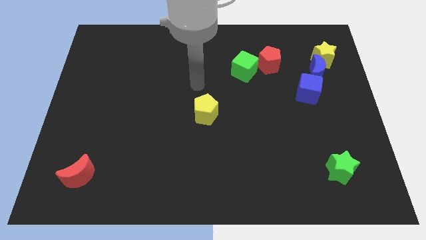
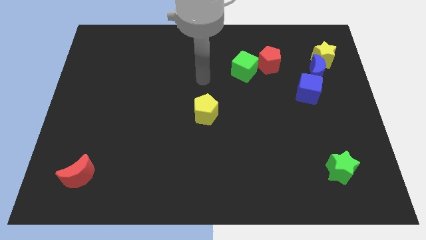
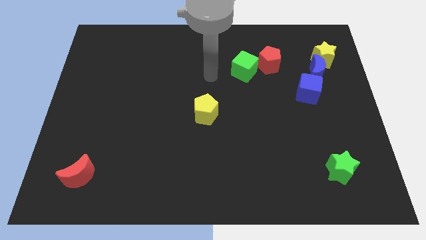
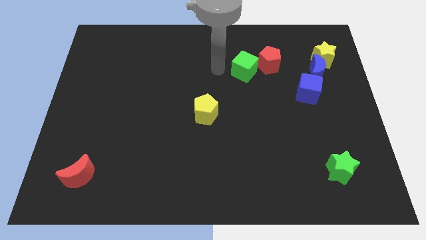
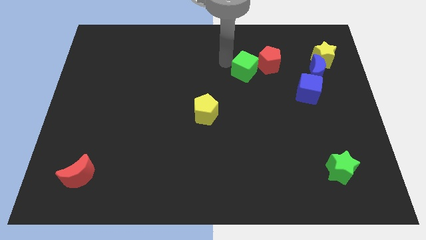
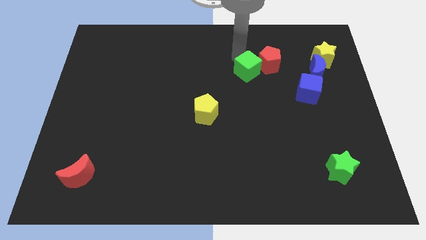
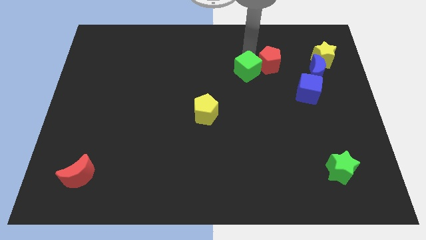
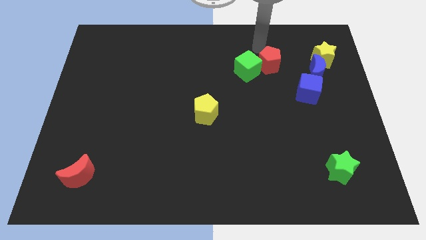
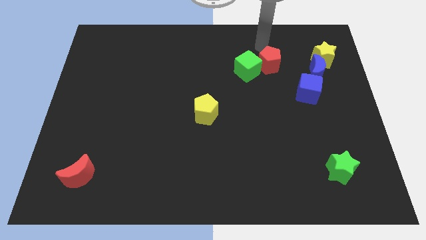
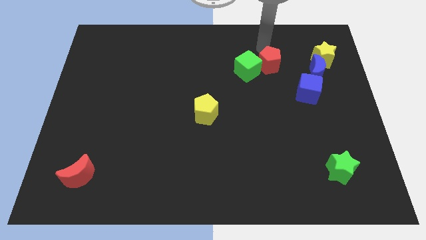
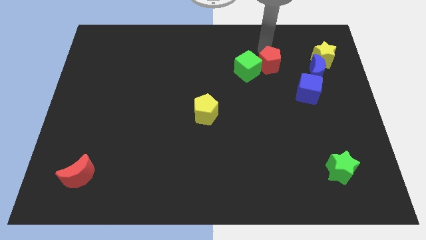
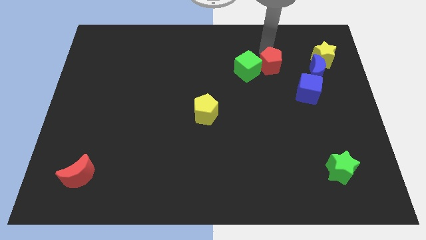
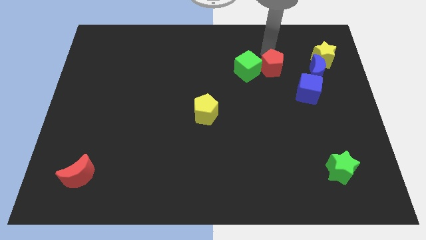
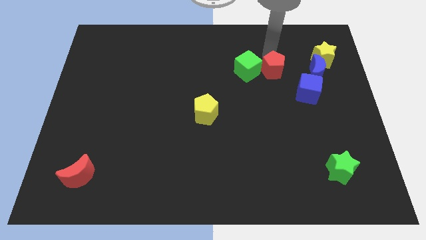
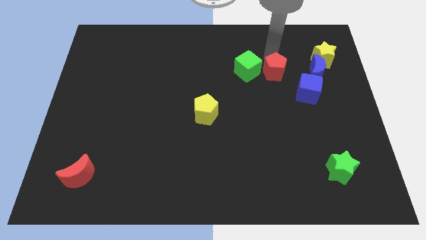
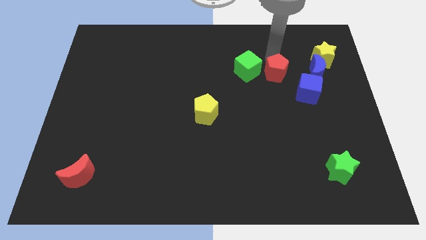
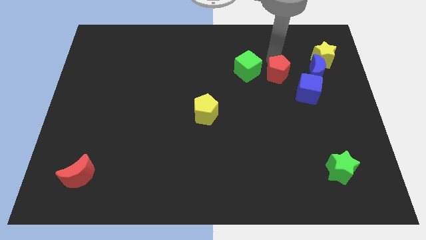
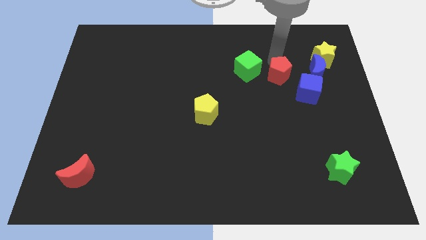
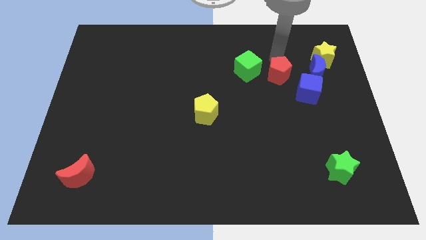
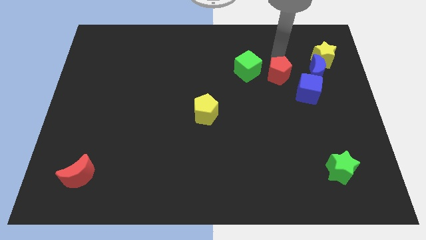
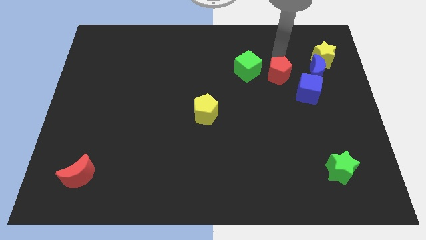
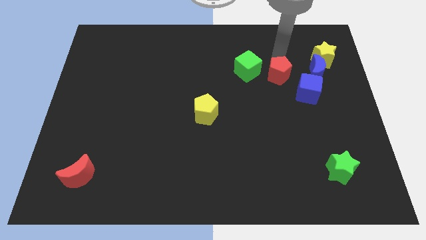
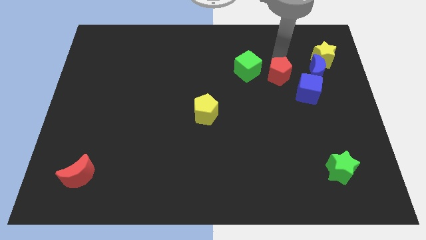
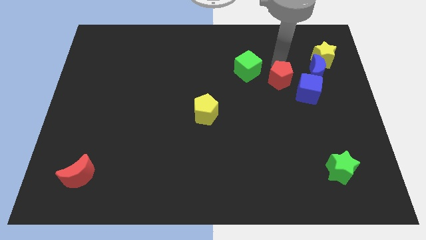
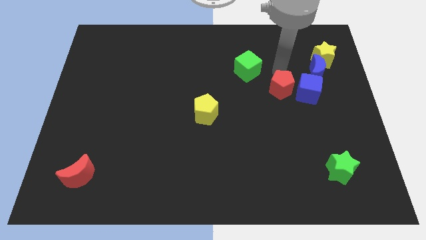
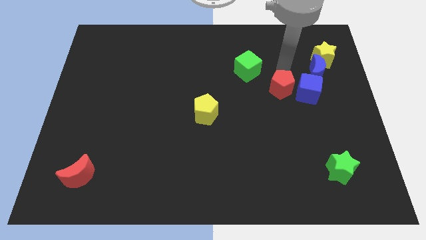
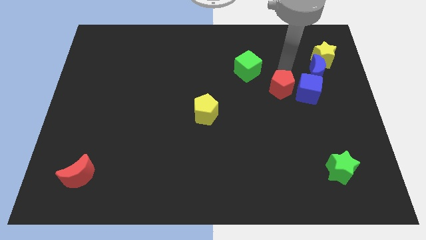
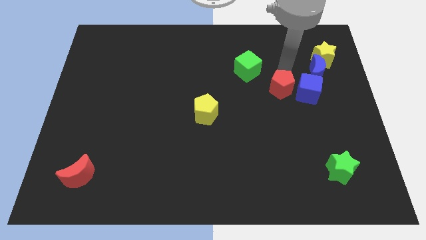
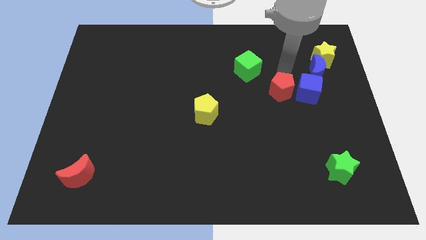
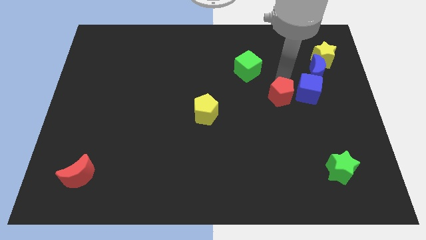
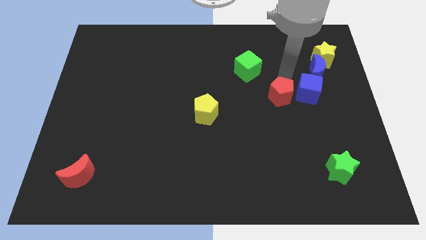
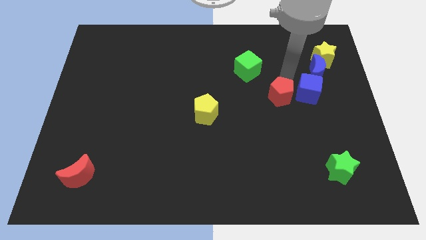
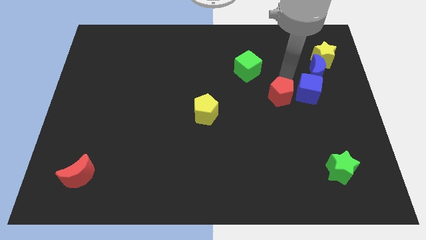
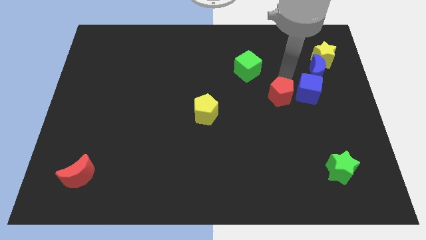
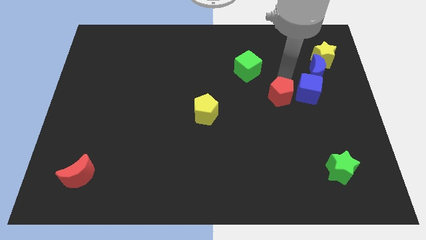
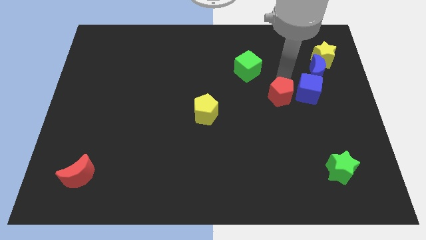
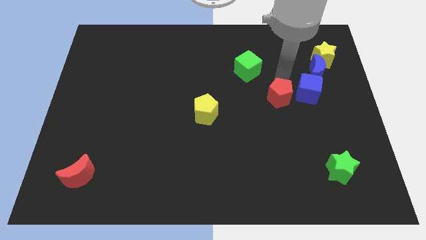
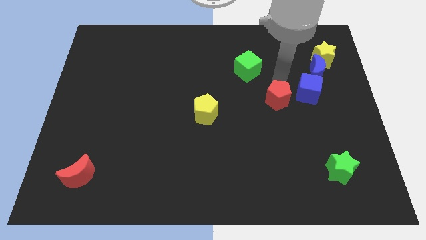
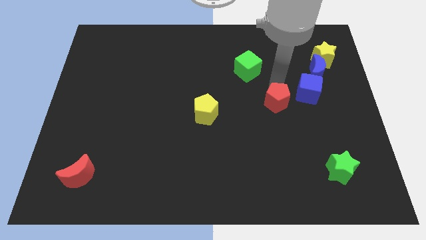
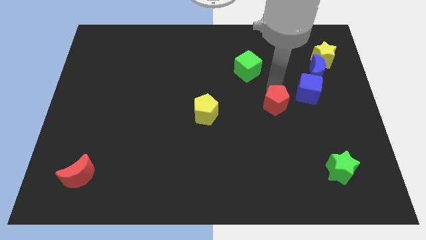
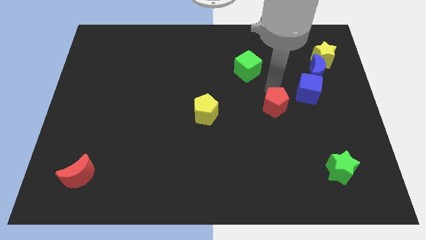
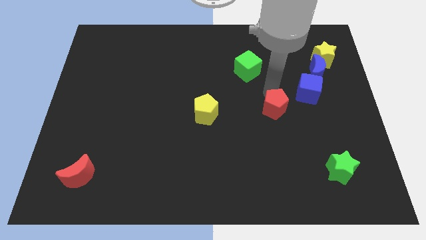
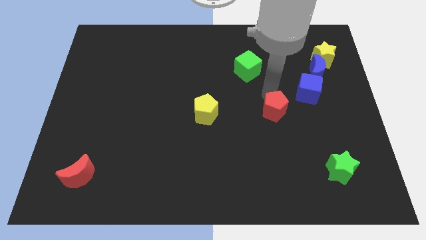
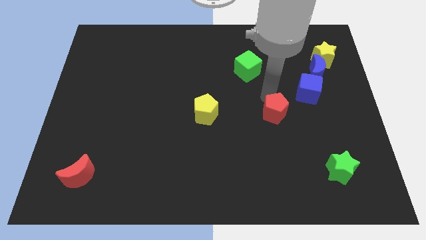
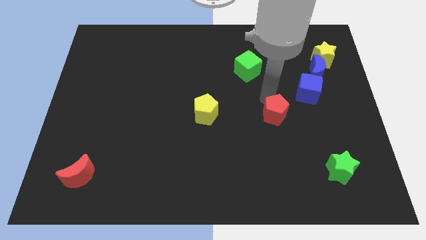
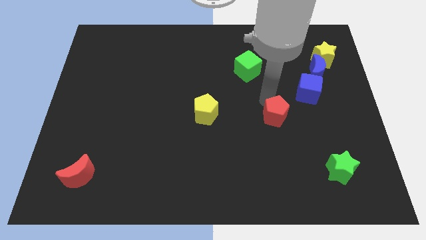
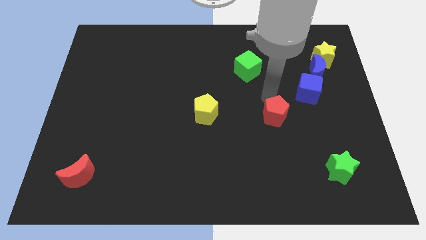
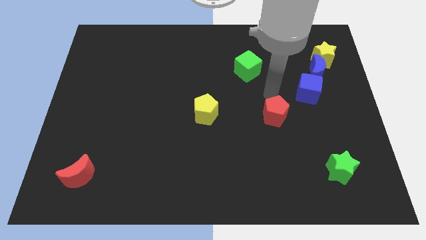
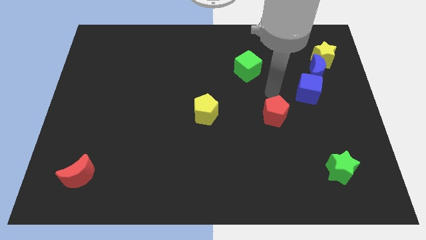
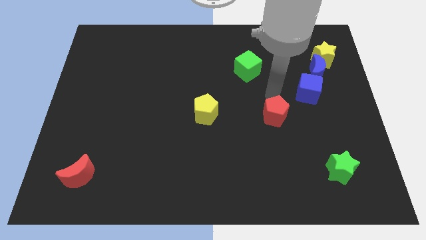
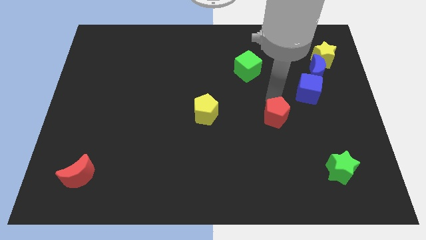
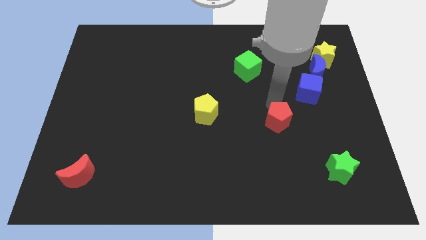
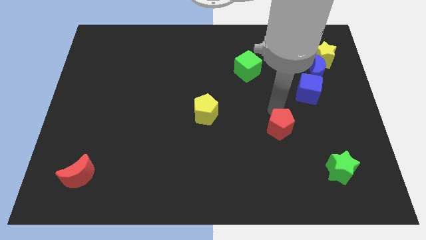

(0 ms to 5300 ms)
slide the red pentagon downwards

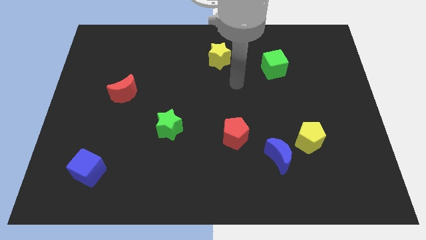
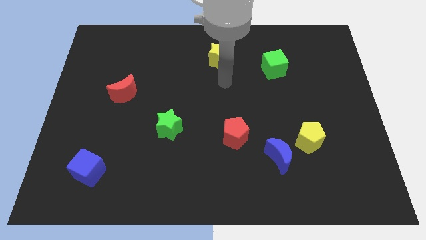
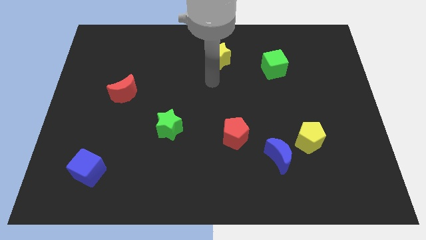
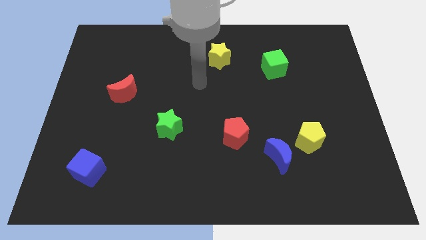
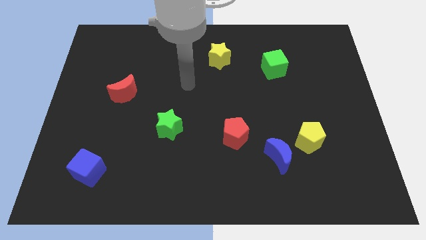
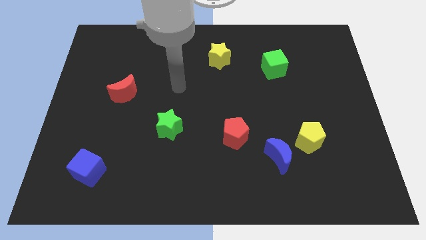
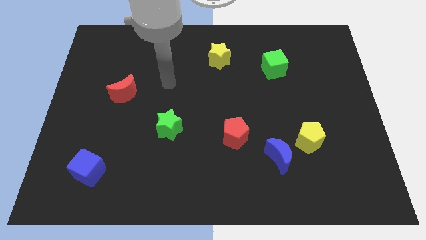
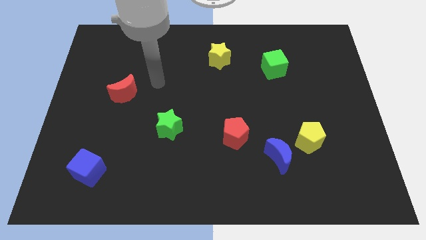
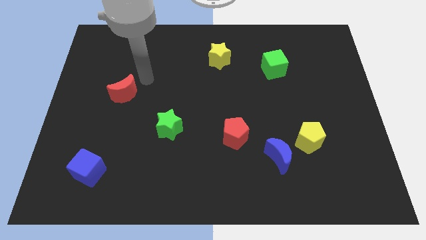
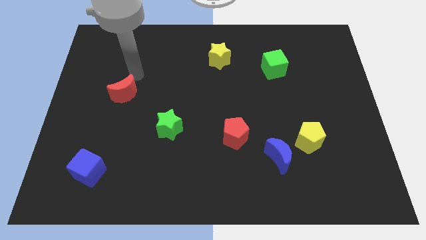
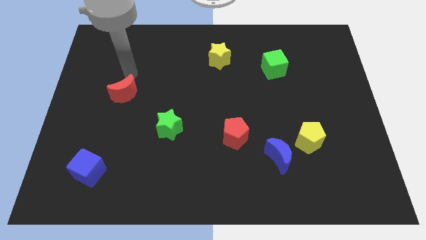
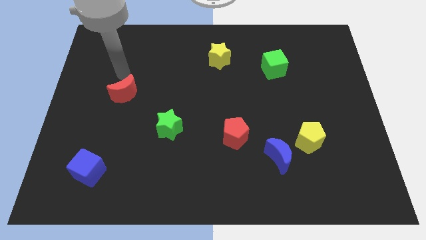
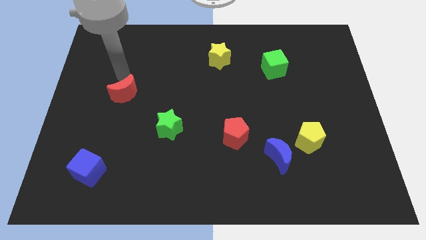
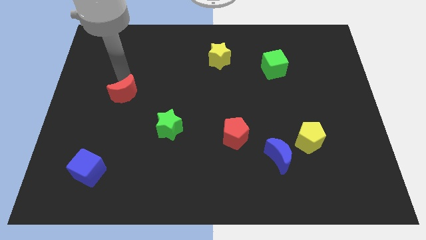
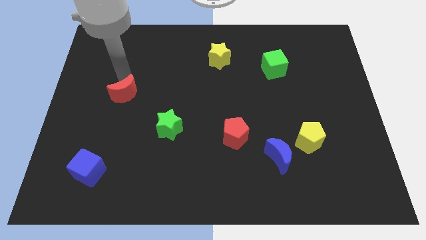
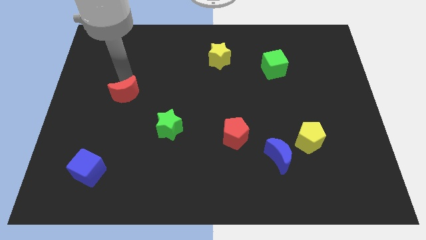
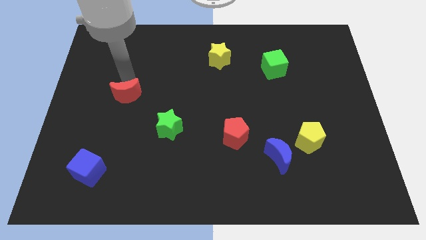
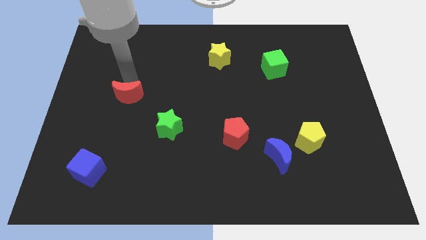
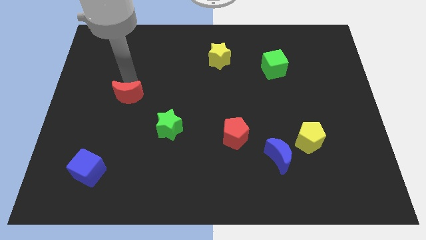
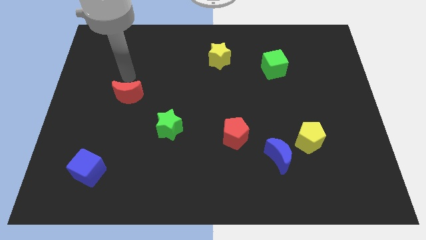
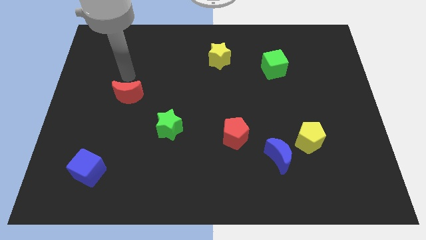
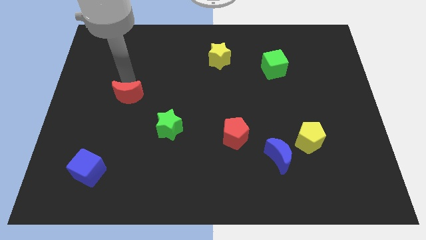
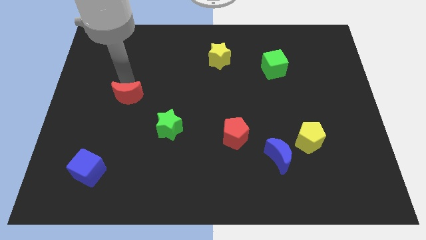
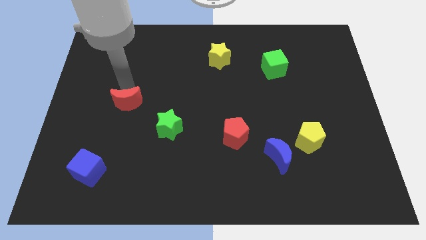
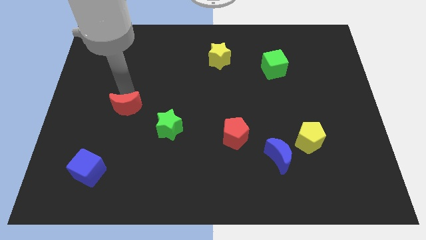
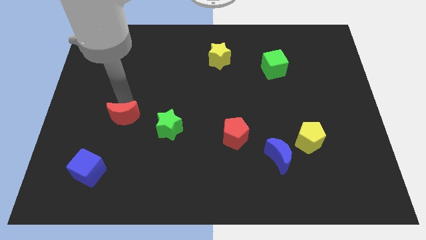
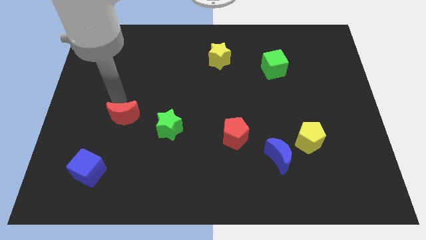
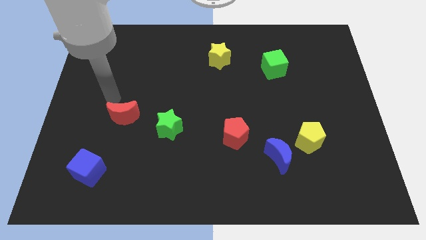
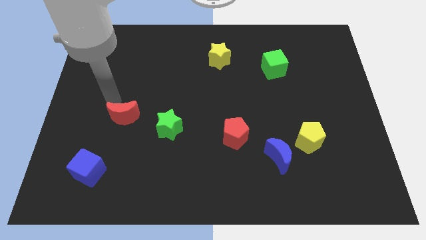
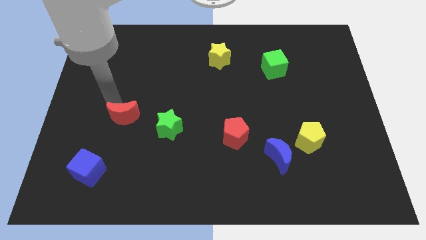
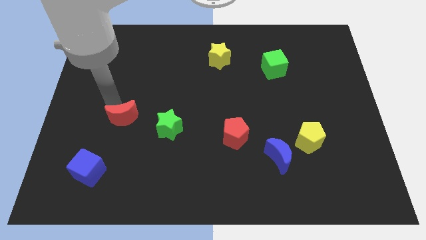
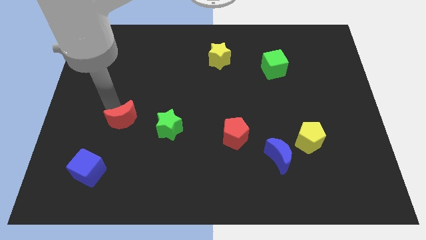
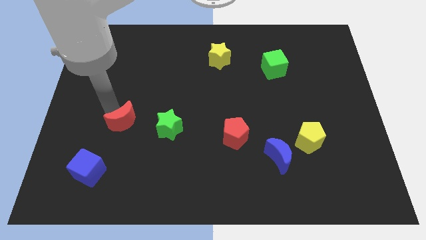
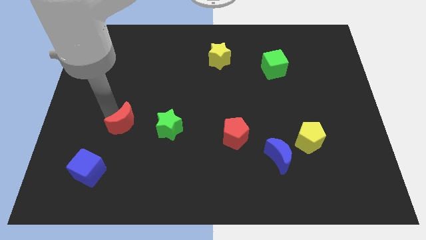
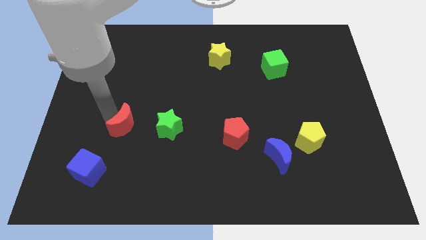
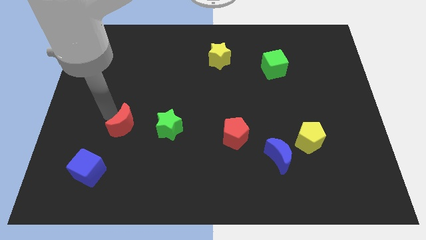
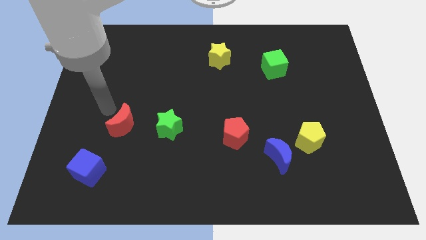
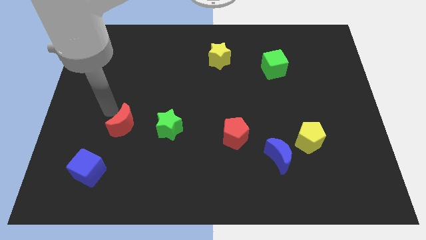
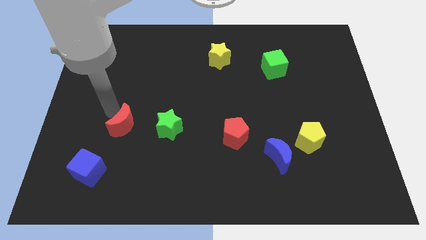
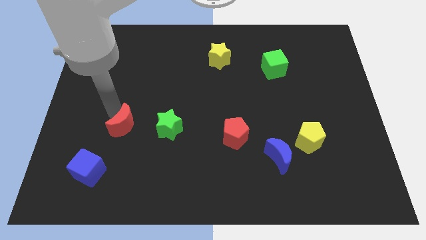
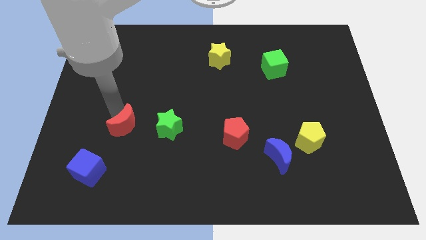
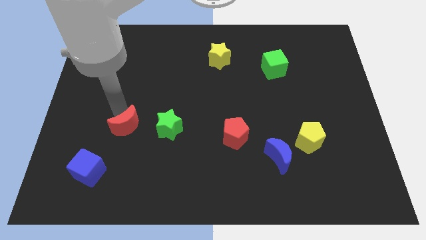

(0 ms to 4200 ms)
push the red moon diagonally down and to the right somewhat
